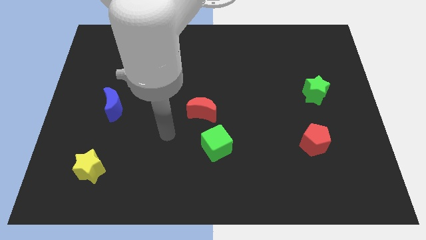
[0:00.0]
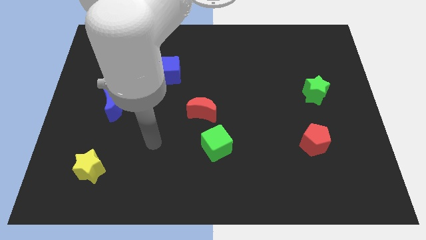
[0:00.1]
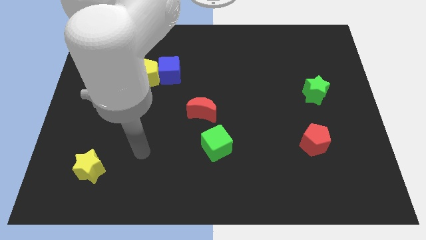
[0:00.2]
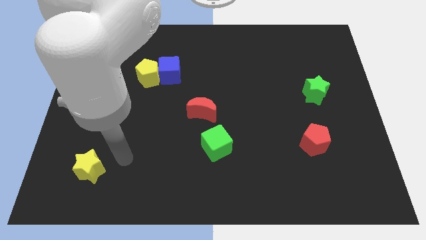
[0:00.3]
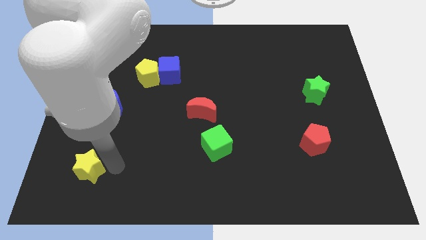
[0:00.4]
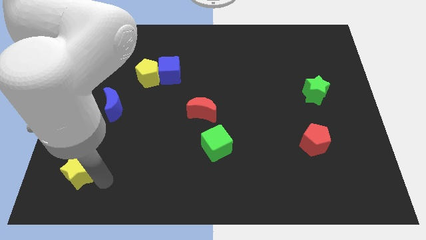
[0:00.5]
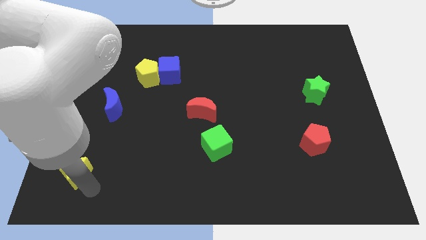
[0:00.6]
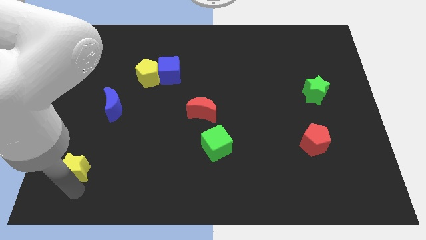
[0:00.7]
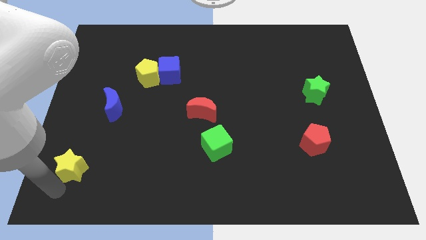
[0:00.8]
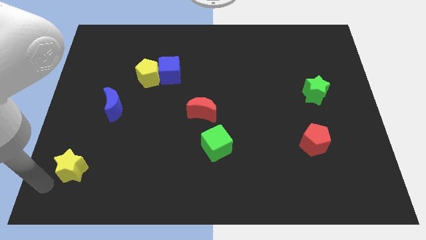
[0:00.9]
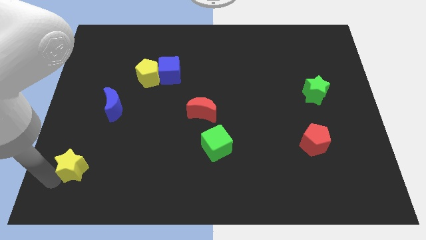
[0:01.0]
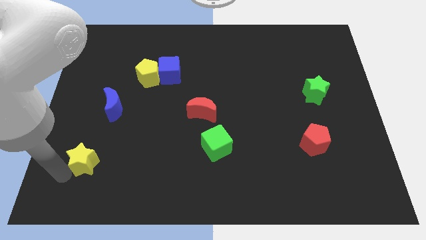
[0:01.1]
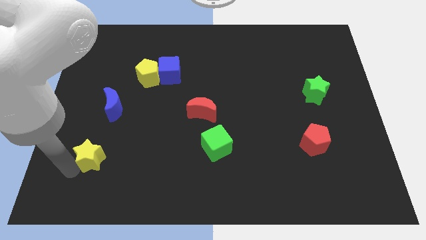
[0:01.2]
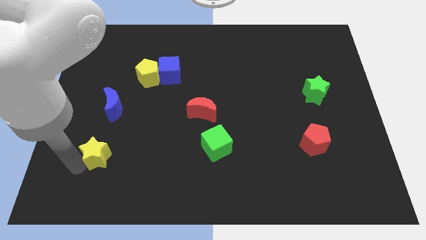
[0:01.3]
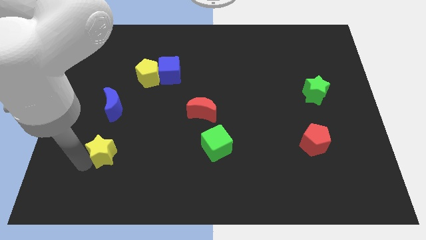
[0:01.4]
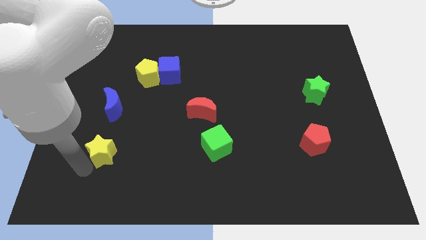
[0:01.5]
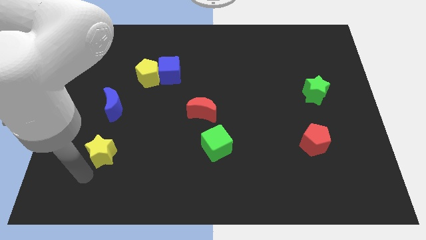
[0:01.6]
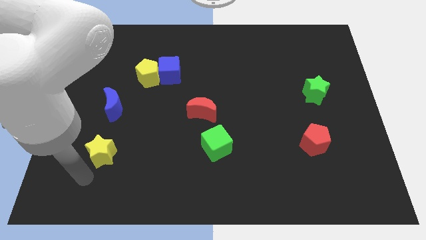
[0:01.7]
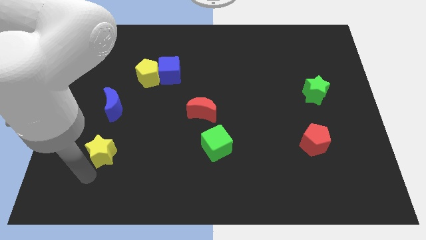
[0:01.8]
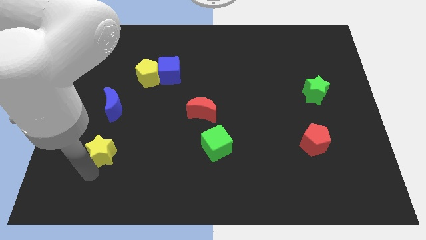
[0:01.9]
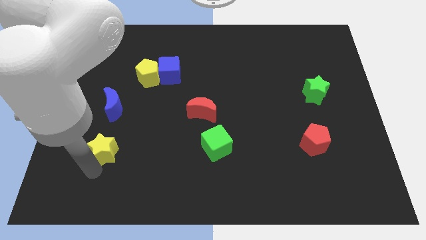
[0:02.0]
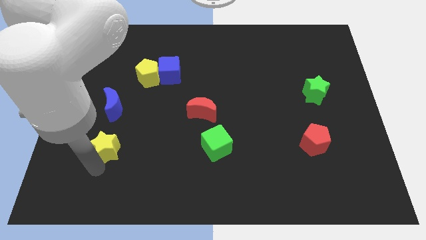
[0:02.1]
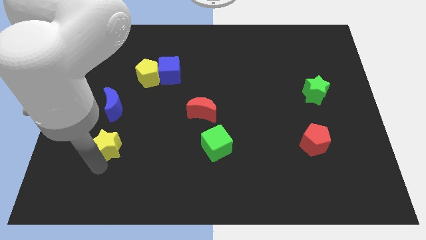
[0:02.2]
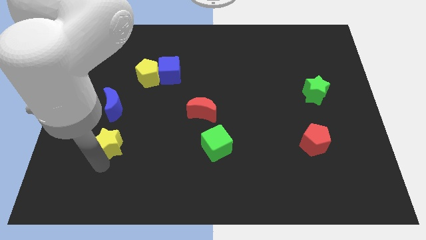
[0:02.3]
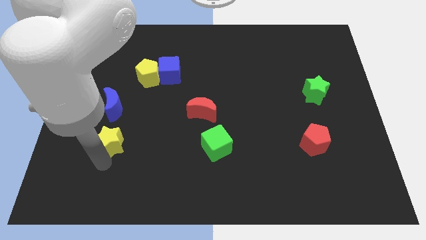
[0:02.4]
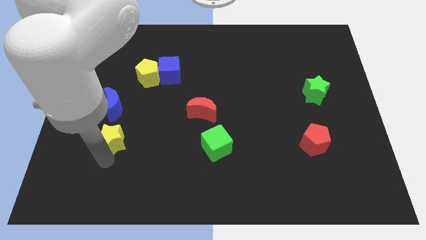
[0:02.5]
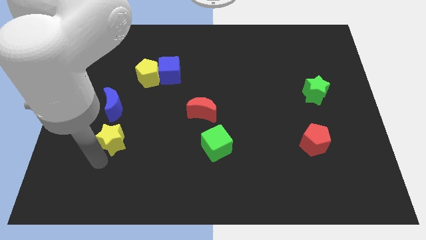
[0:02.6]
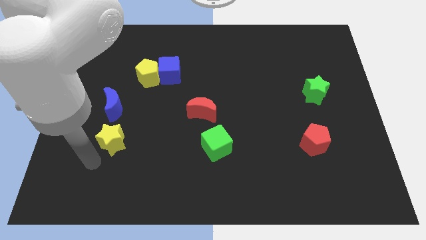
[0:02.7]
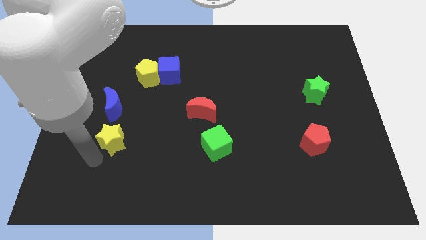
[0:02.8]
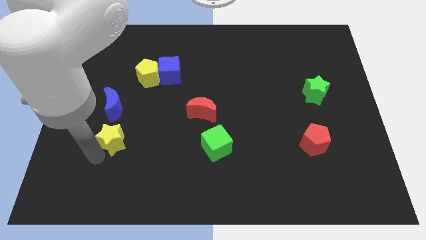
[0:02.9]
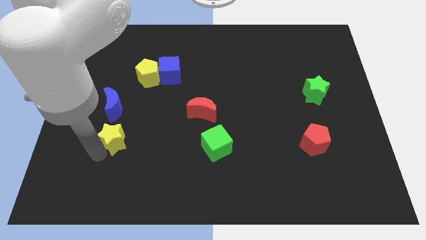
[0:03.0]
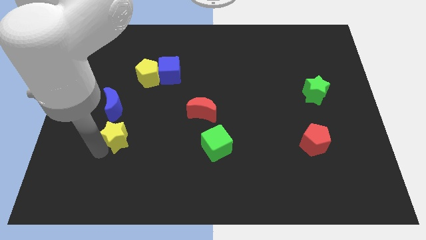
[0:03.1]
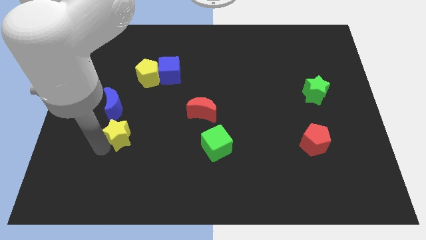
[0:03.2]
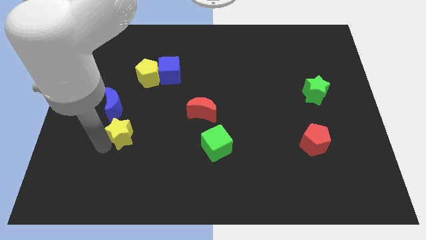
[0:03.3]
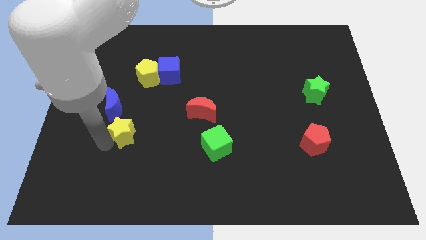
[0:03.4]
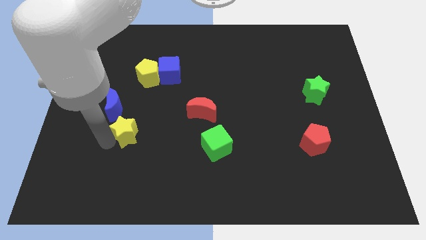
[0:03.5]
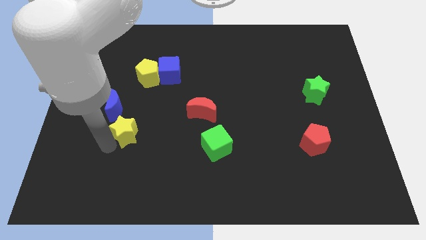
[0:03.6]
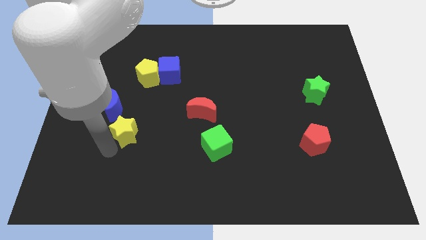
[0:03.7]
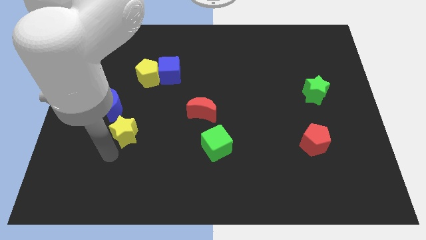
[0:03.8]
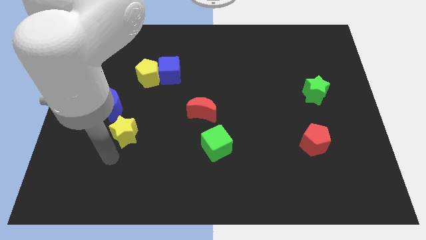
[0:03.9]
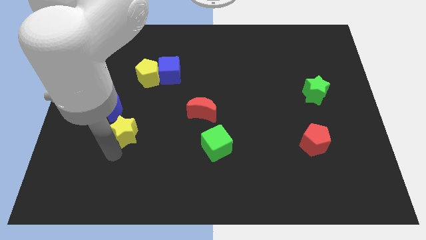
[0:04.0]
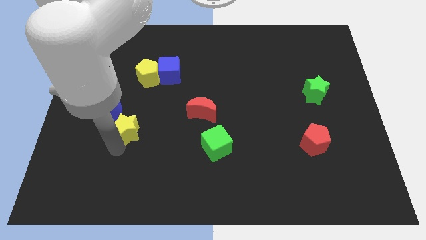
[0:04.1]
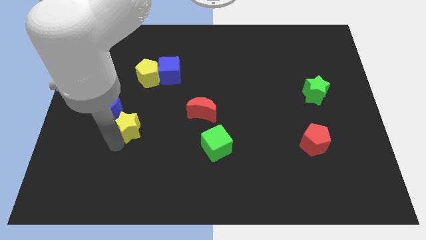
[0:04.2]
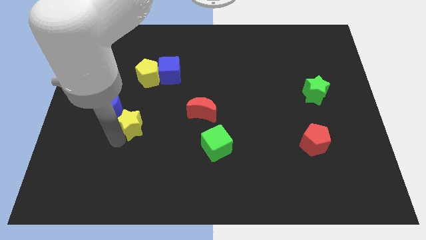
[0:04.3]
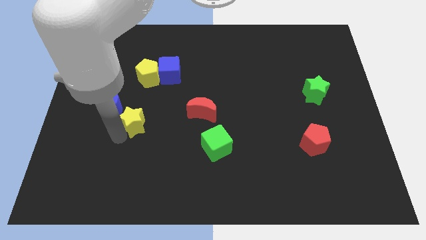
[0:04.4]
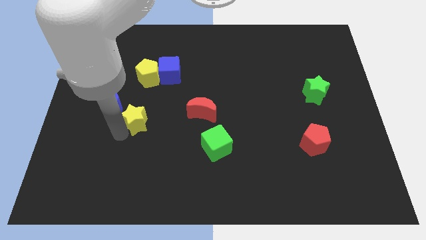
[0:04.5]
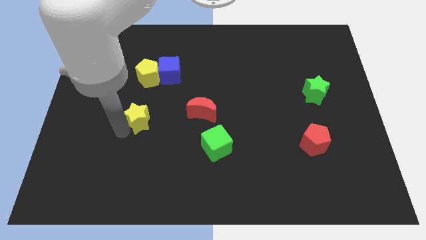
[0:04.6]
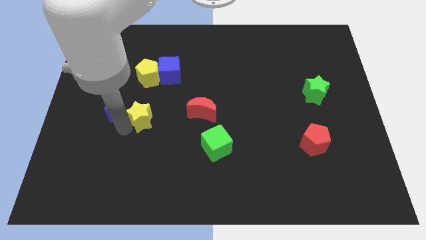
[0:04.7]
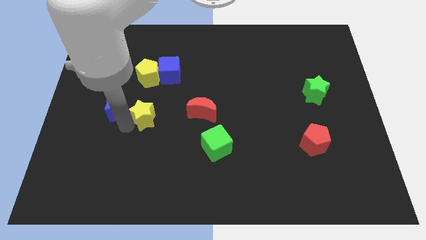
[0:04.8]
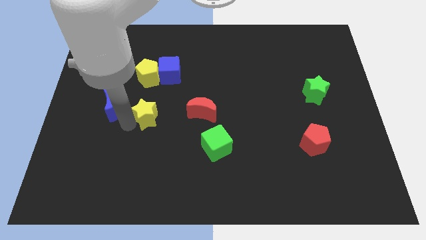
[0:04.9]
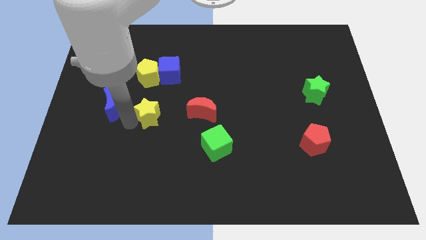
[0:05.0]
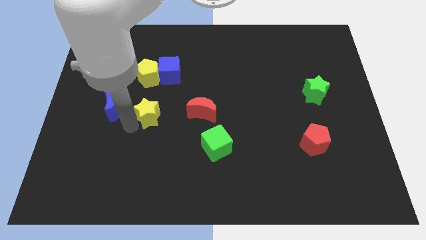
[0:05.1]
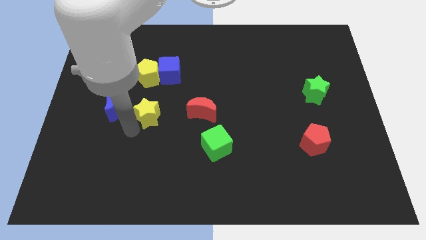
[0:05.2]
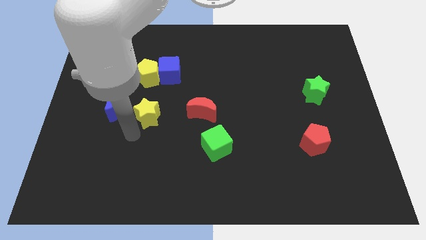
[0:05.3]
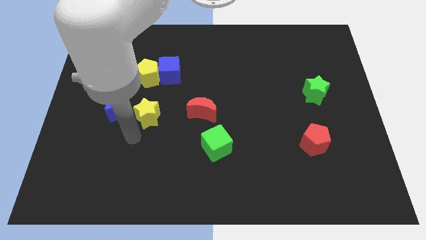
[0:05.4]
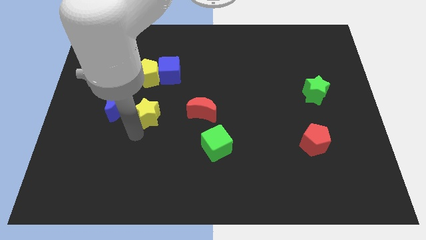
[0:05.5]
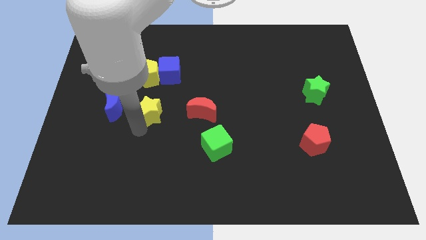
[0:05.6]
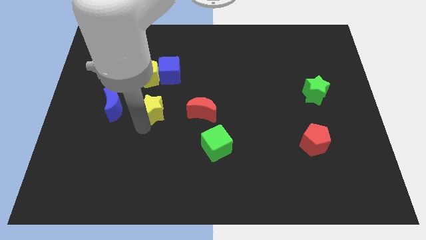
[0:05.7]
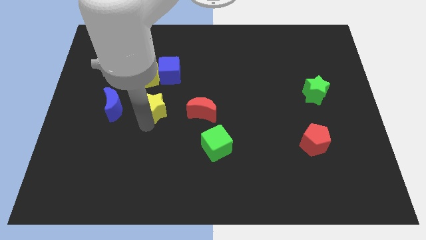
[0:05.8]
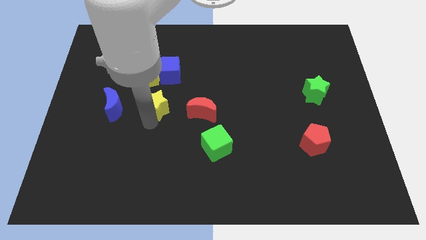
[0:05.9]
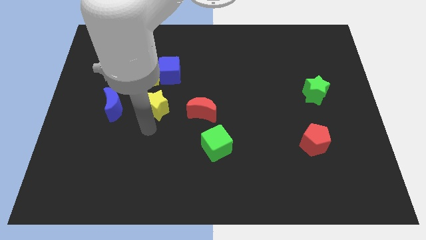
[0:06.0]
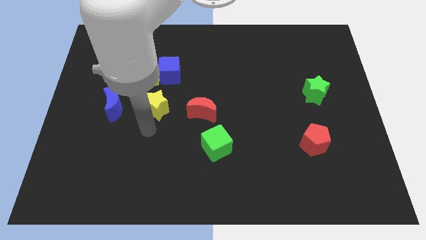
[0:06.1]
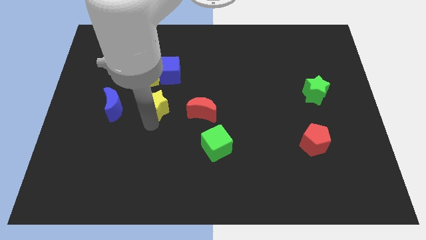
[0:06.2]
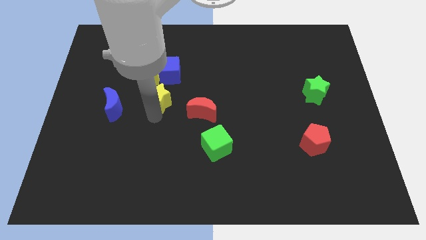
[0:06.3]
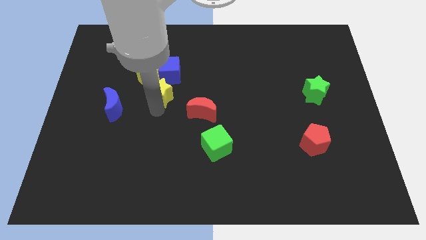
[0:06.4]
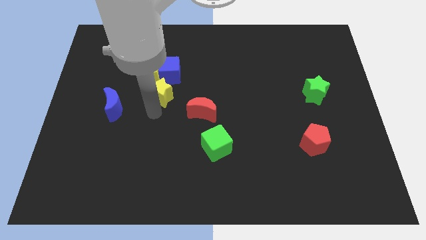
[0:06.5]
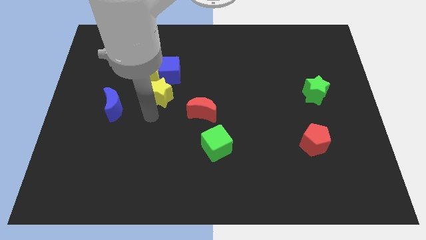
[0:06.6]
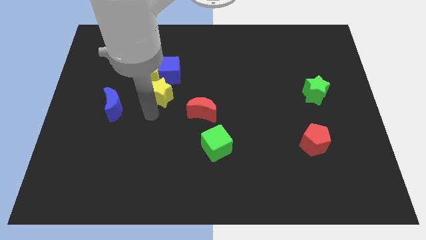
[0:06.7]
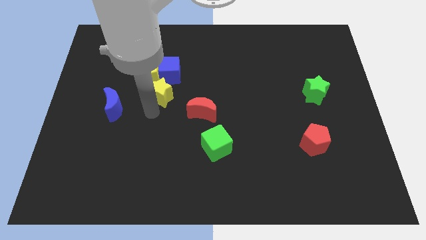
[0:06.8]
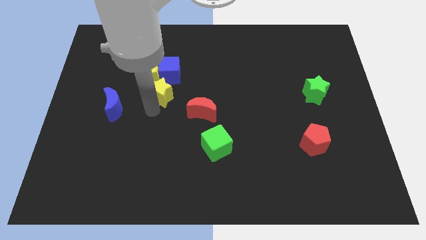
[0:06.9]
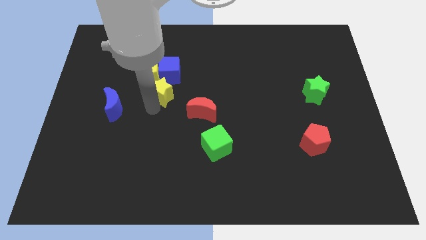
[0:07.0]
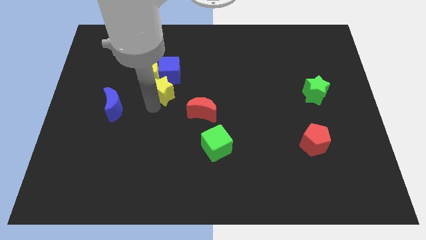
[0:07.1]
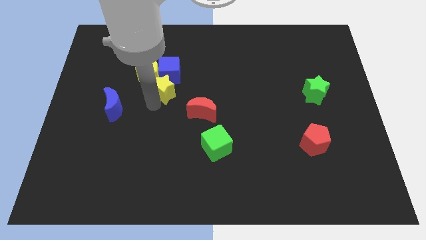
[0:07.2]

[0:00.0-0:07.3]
slide the yellow star close to the blue cube
